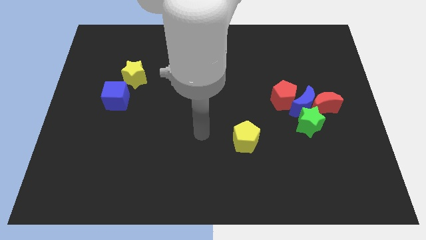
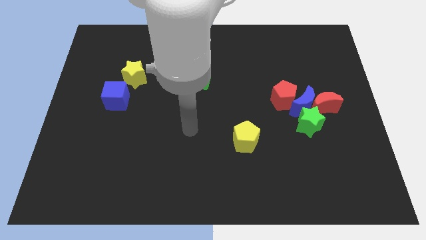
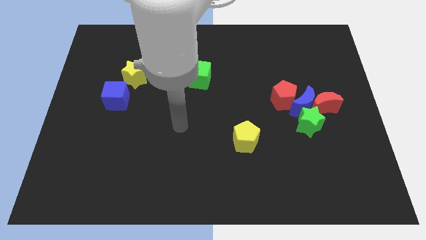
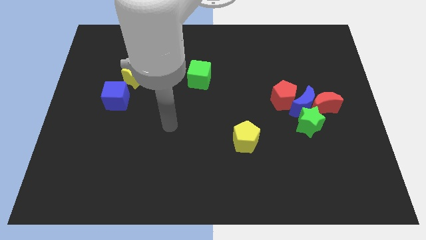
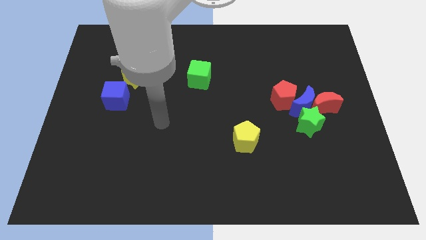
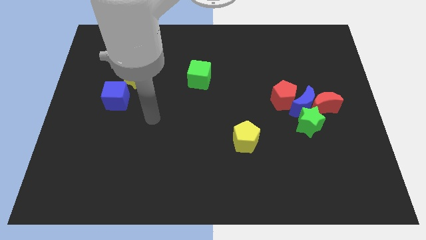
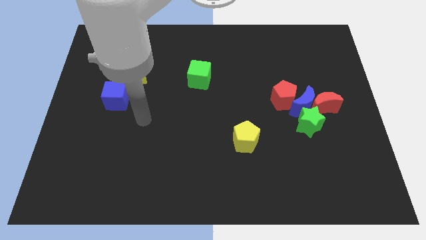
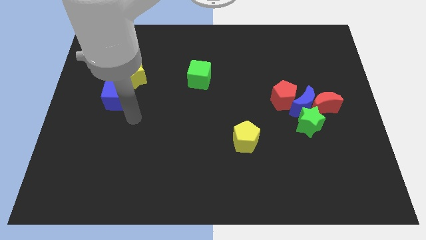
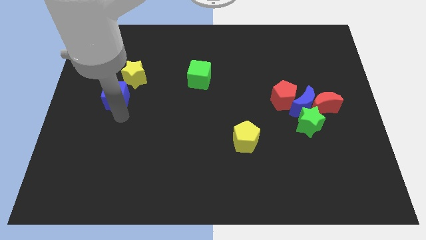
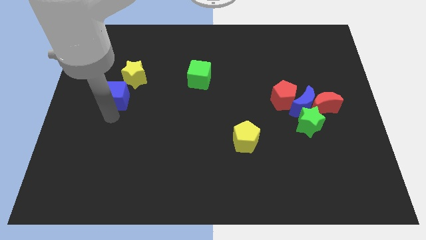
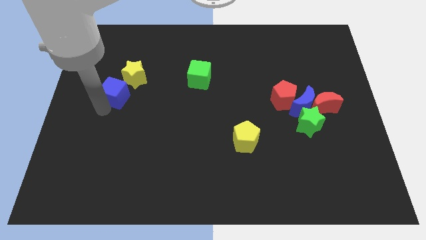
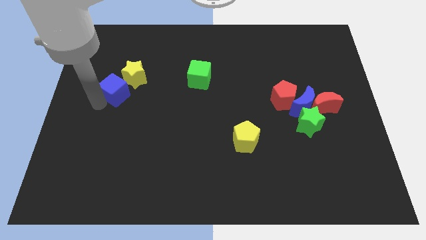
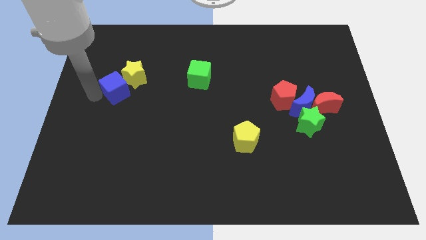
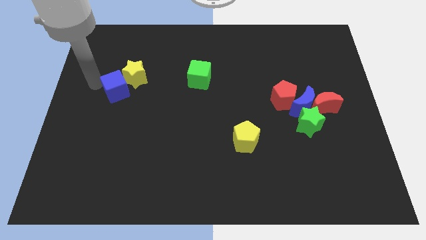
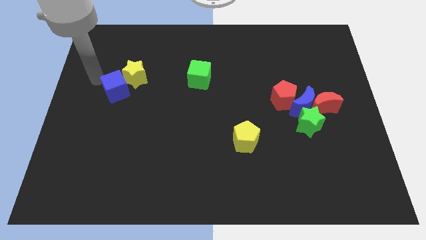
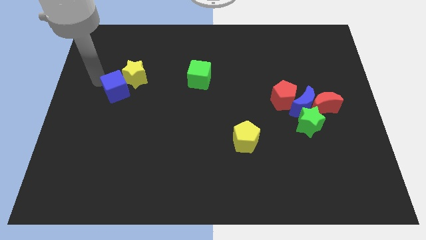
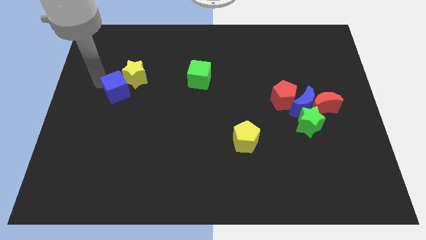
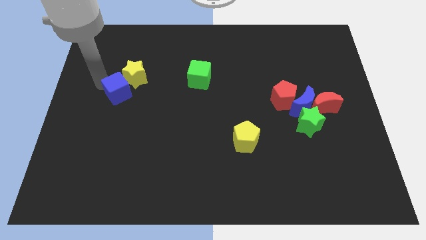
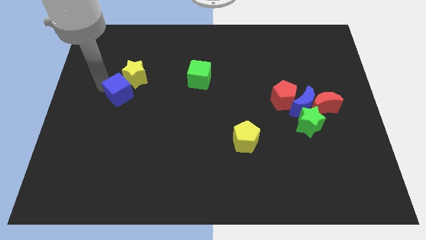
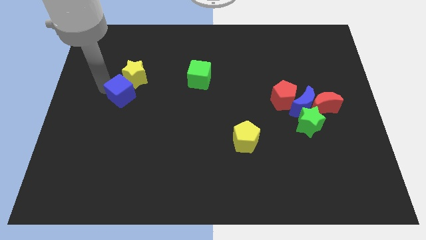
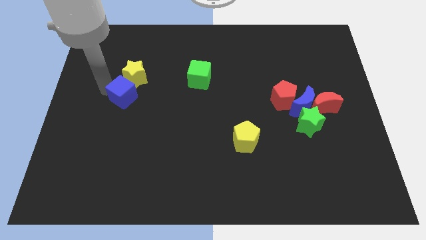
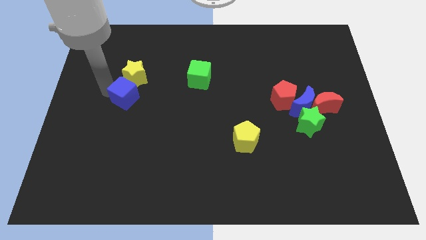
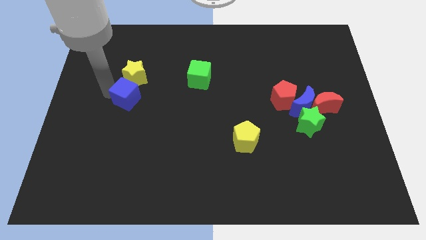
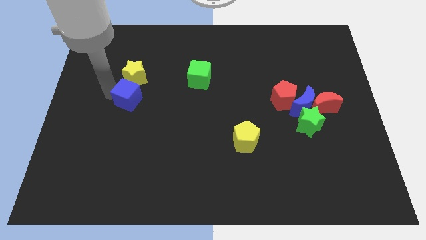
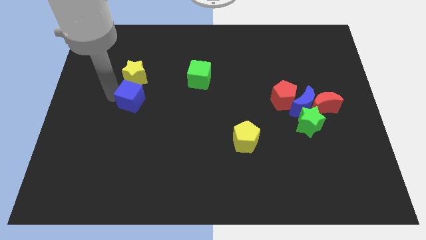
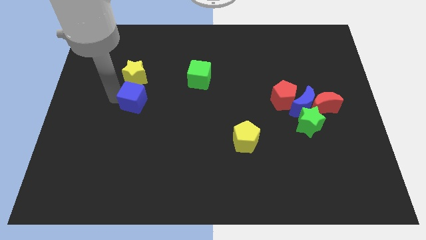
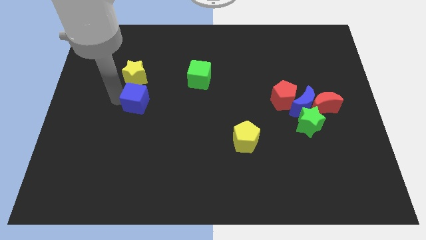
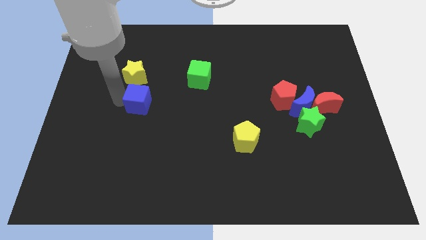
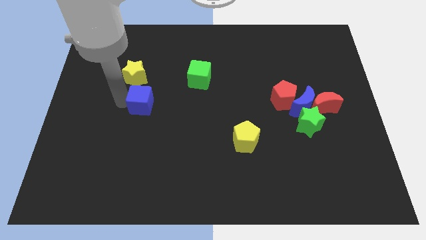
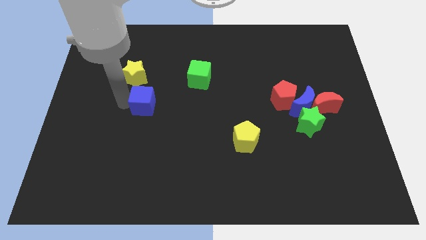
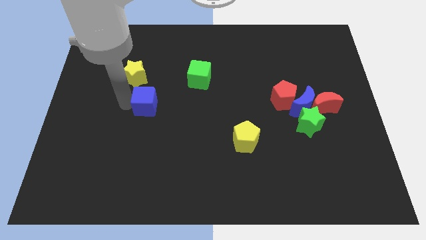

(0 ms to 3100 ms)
slightly move the blue cube to the right

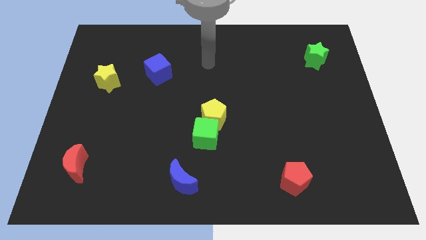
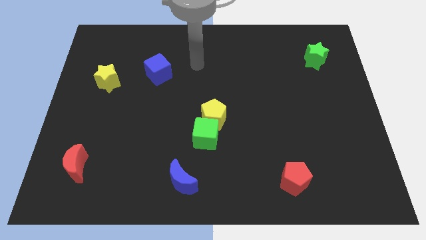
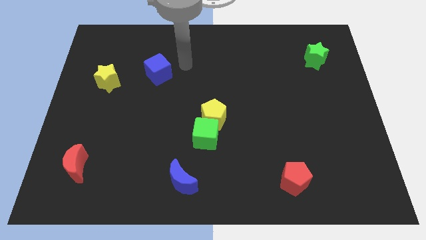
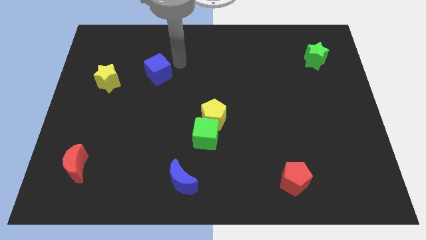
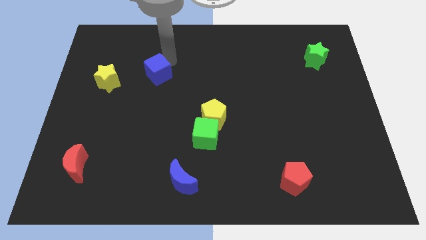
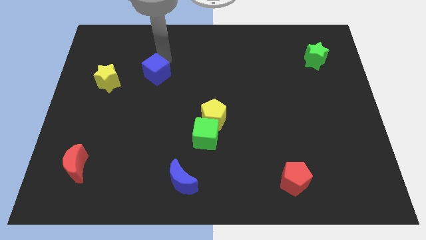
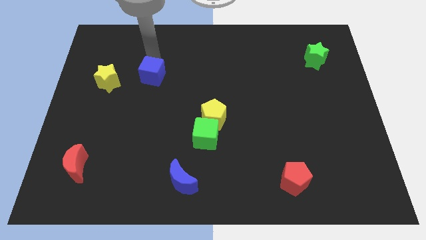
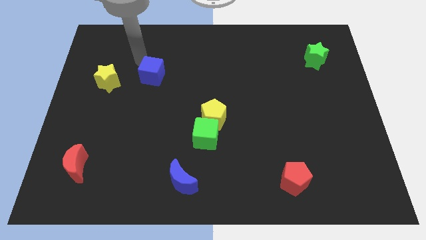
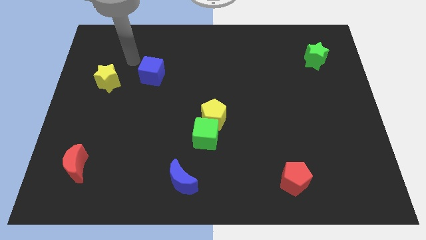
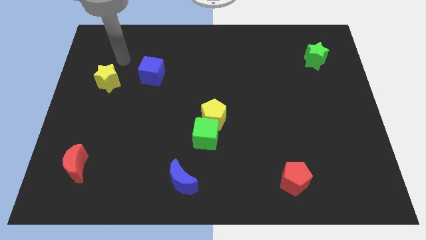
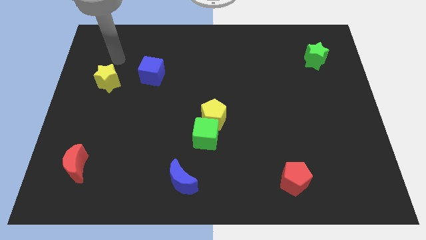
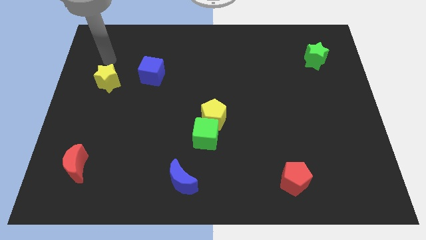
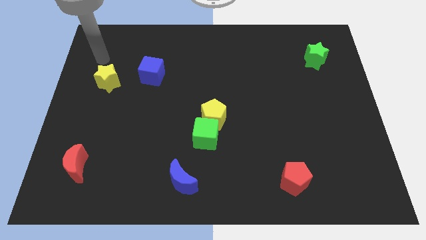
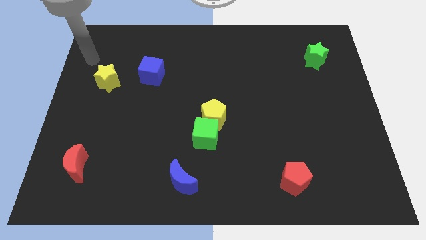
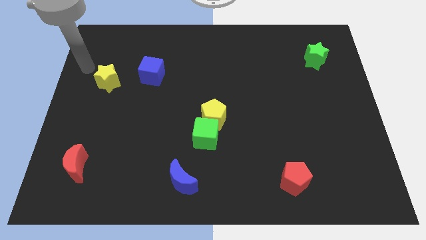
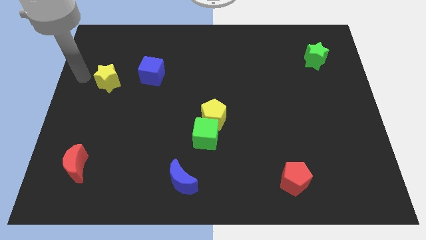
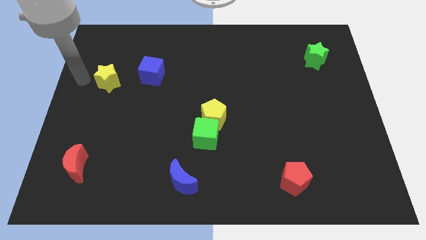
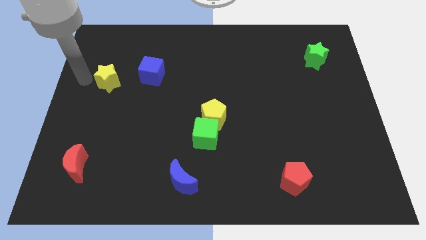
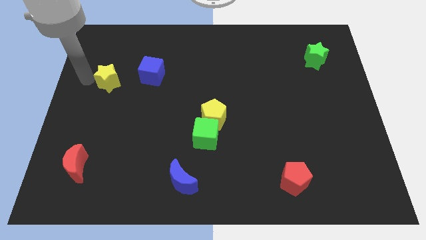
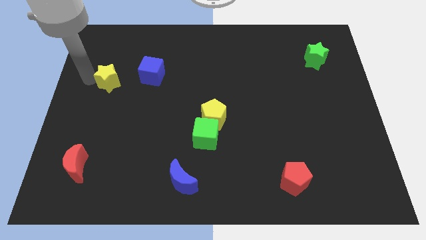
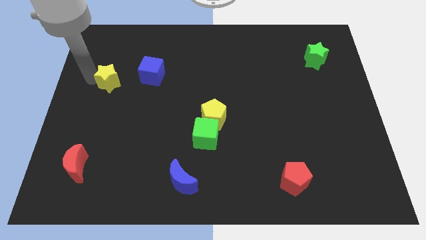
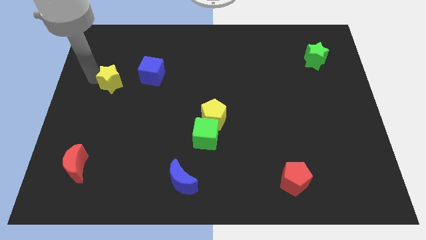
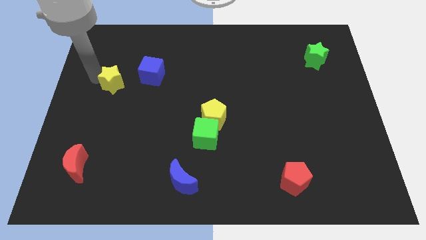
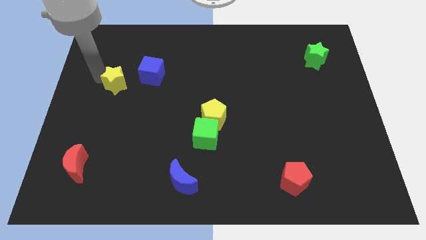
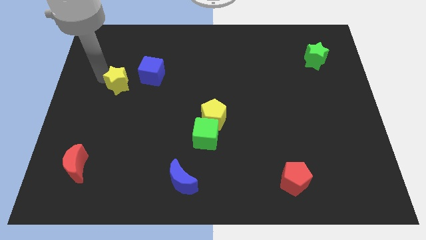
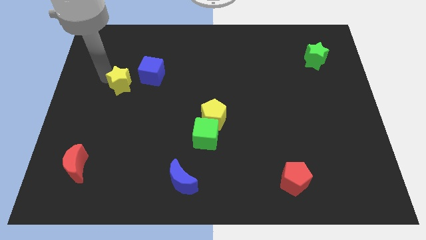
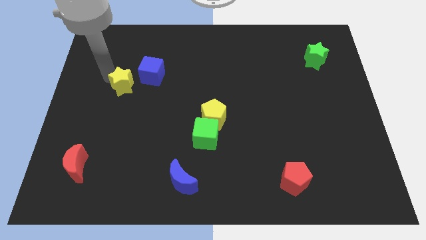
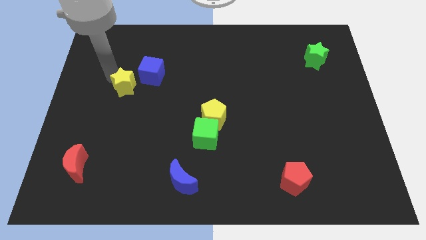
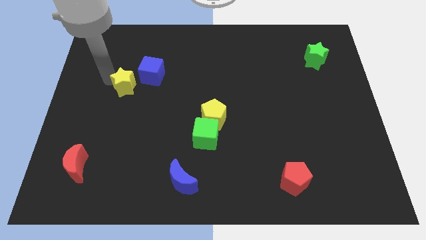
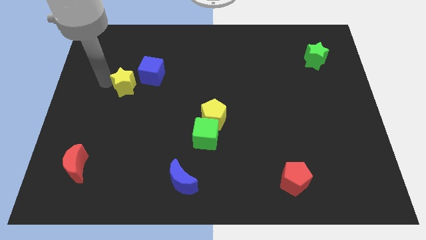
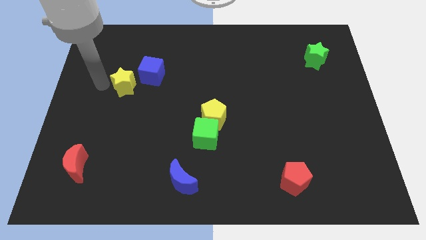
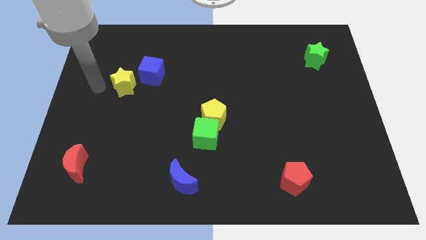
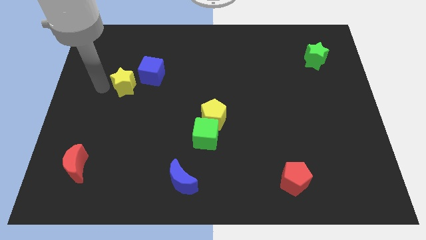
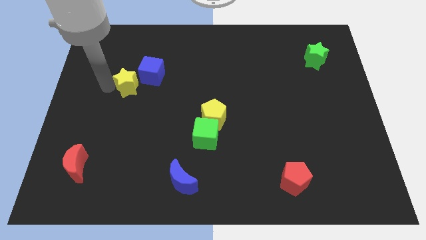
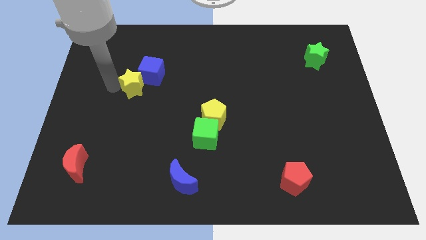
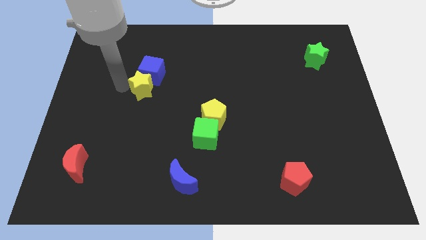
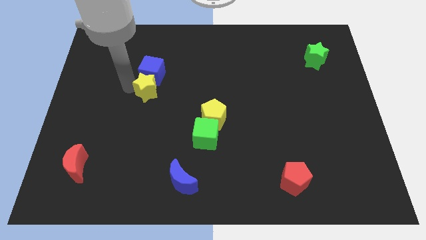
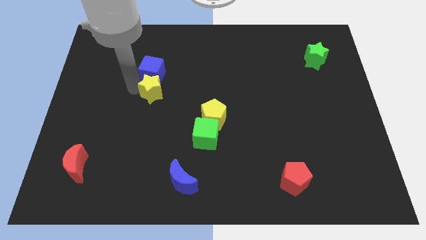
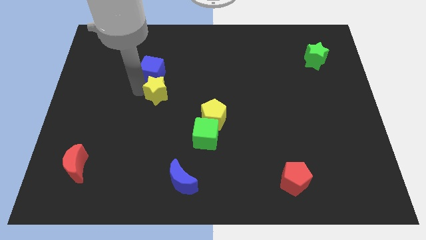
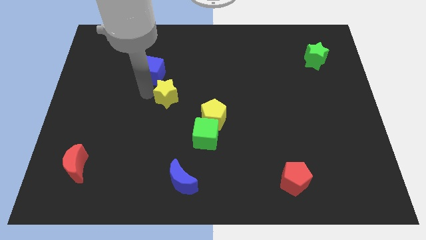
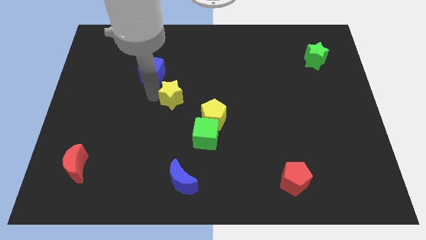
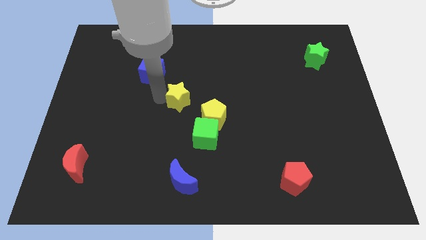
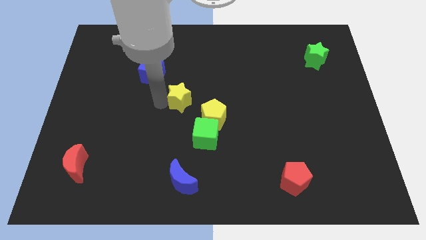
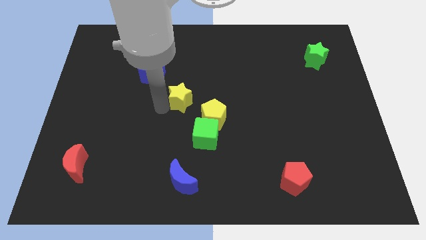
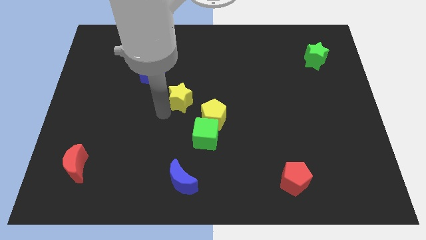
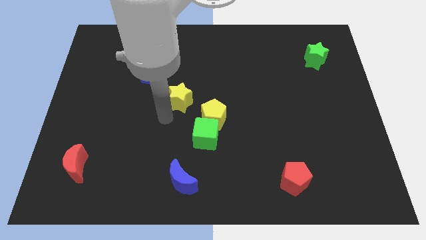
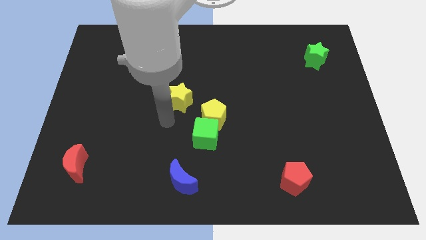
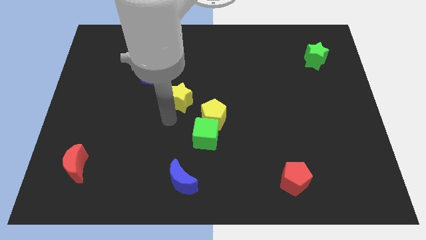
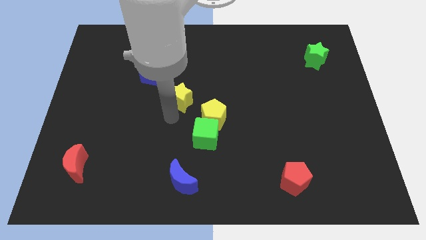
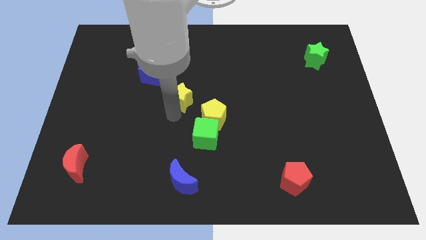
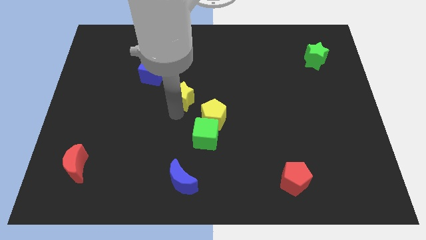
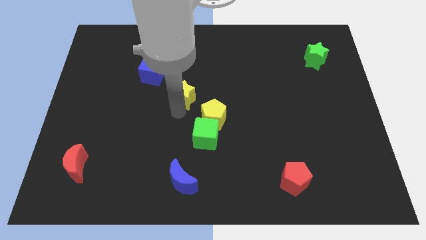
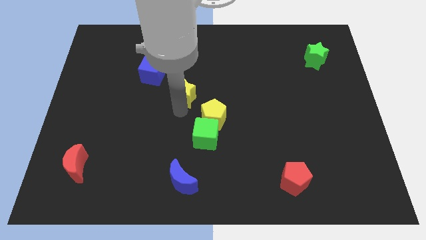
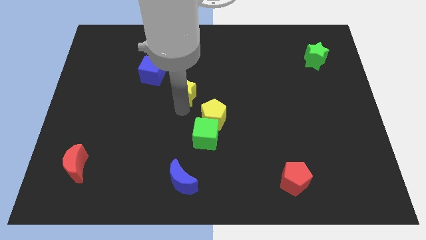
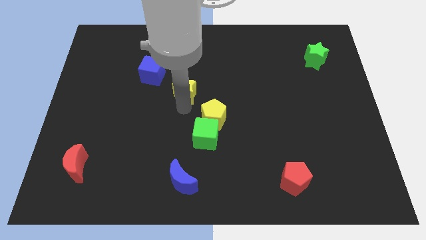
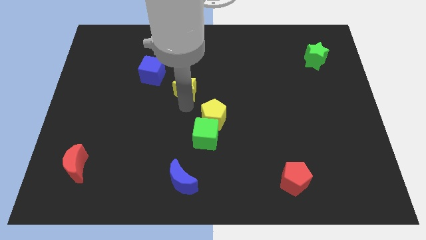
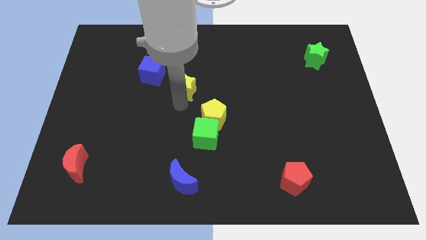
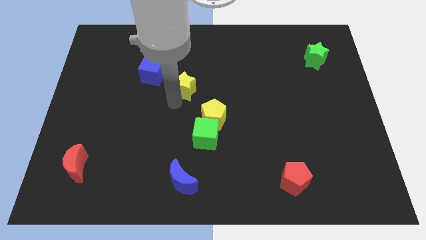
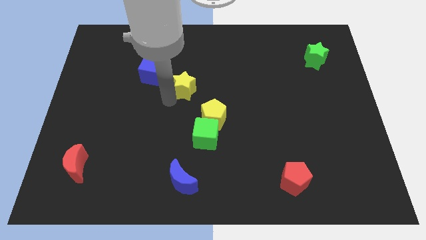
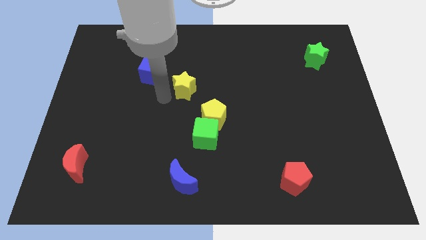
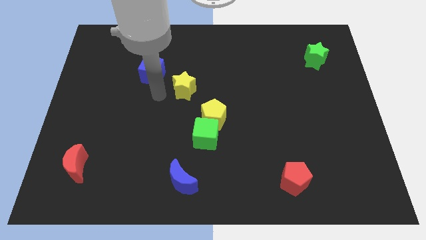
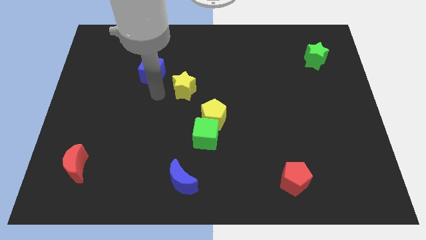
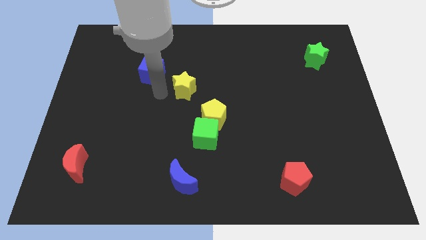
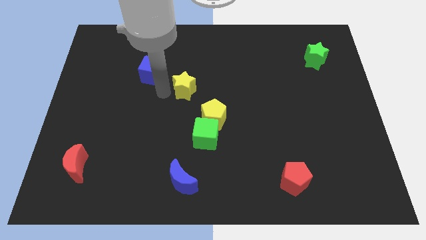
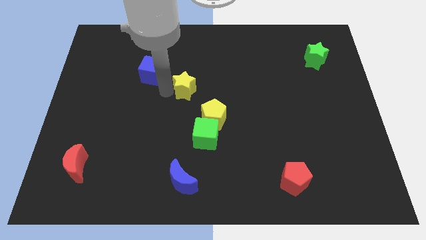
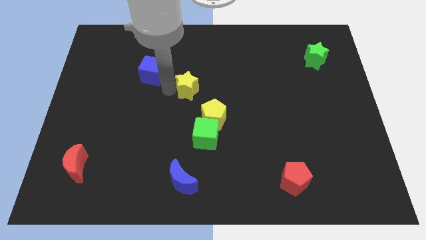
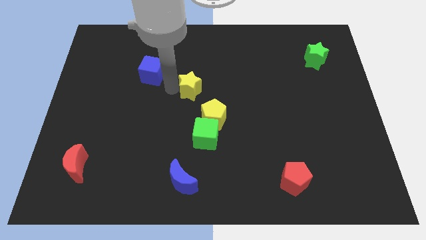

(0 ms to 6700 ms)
push the yellow star to the right
